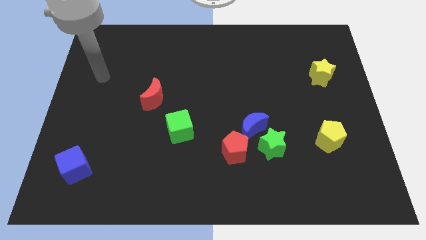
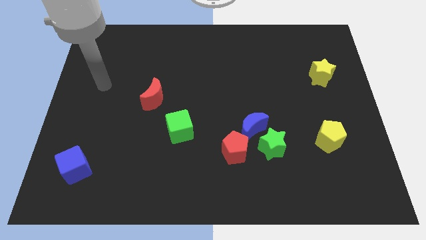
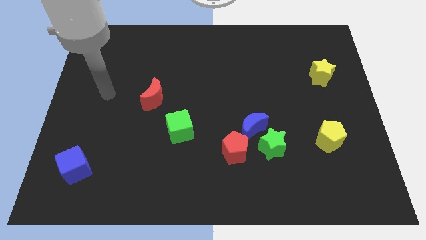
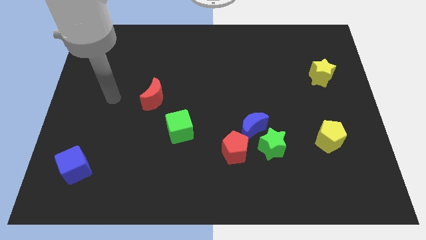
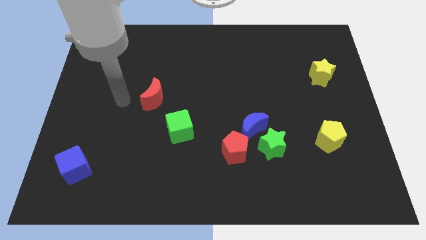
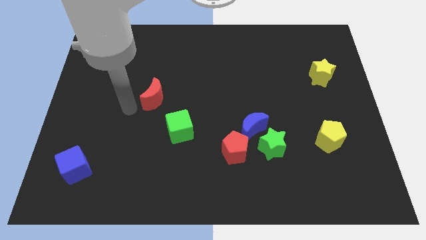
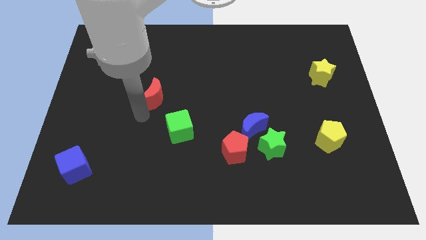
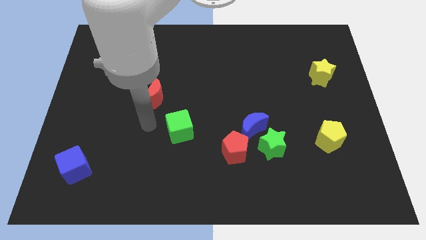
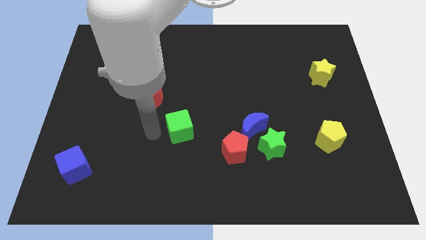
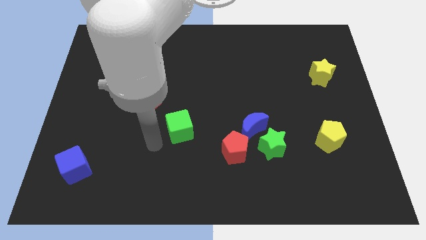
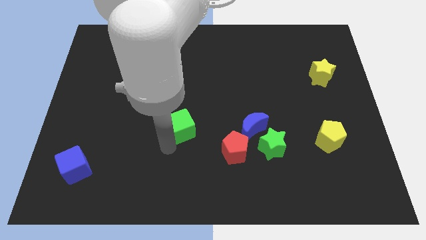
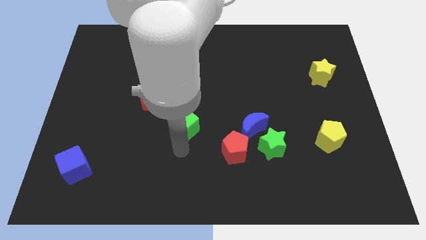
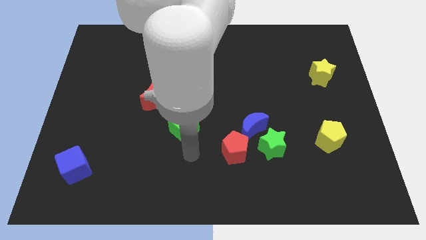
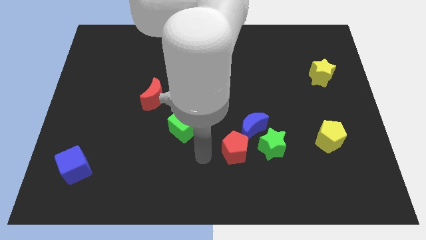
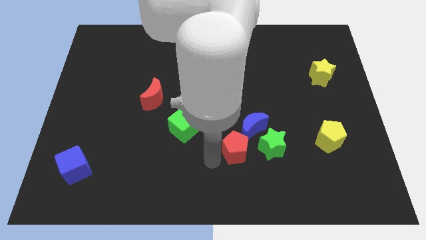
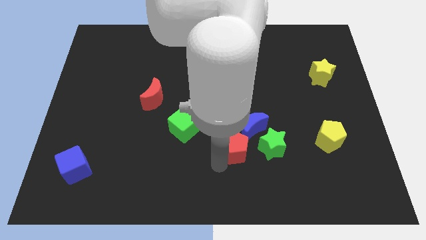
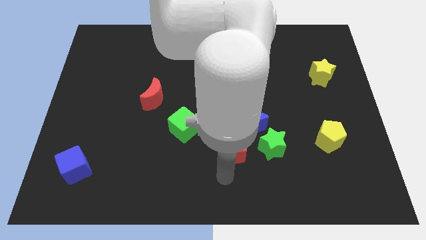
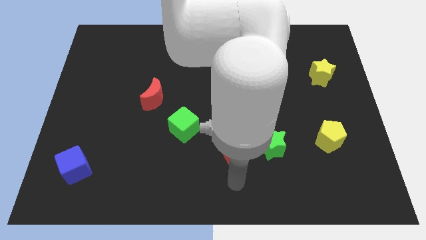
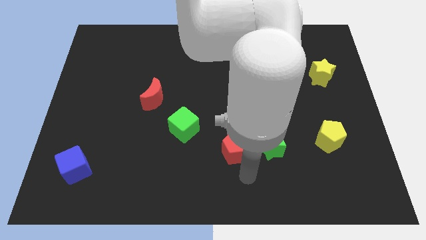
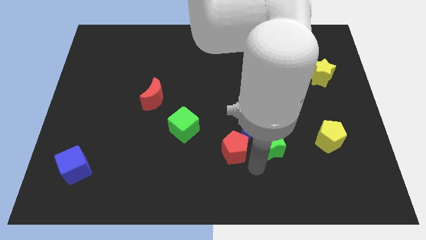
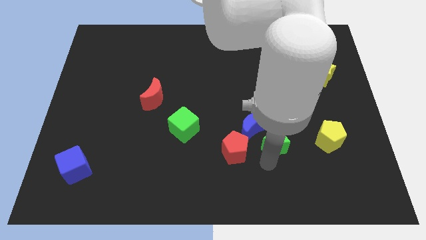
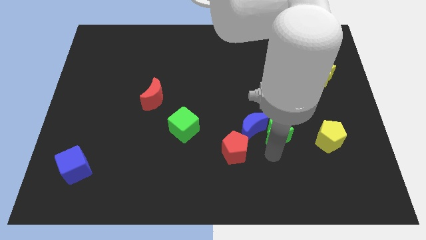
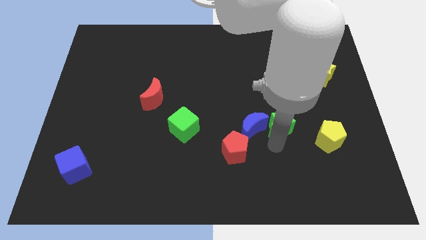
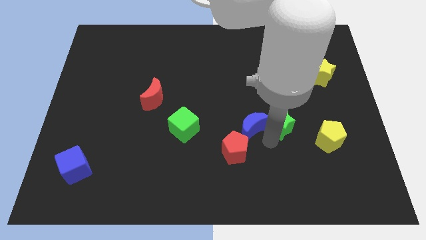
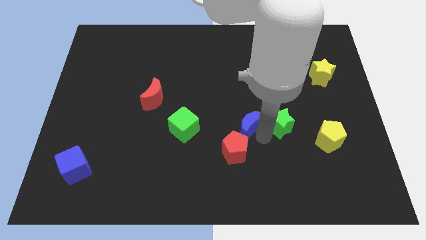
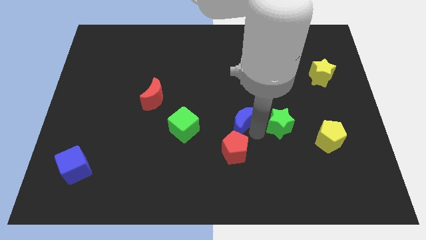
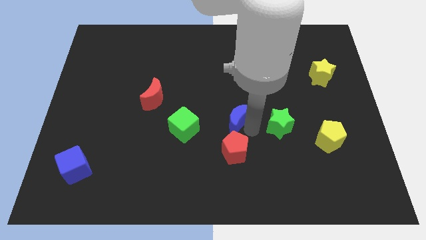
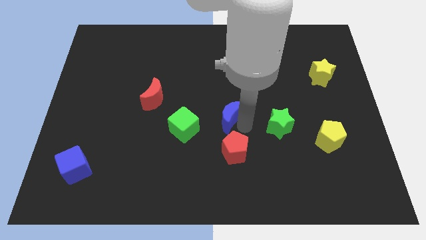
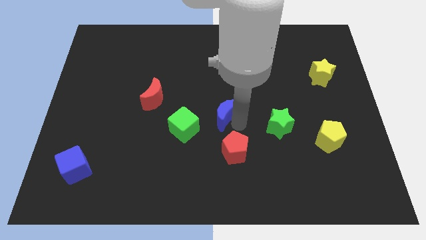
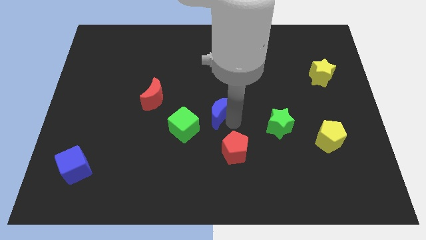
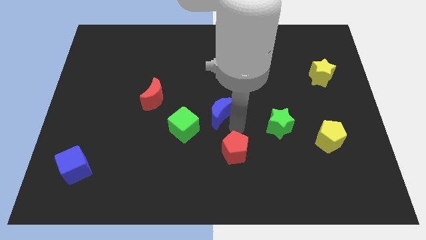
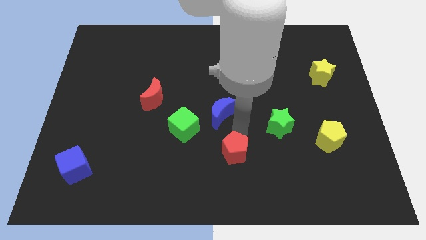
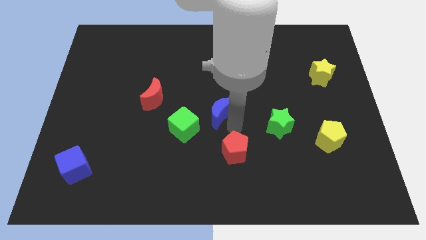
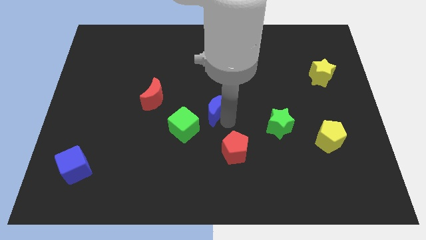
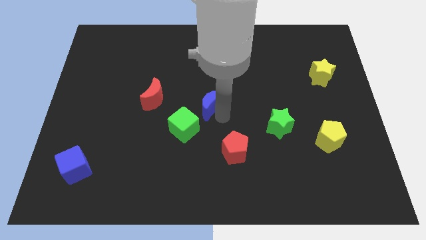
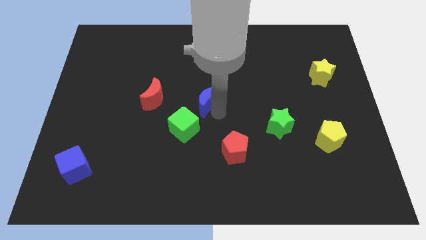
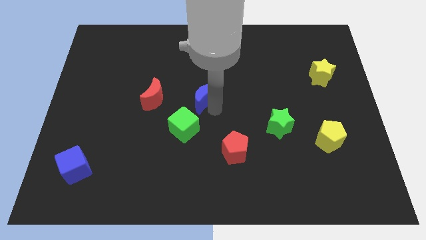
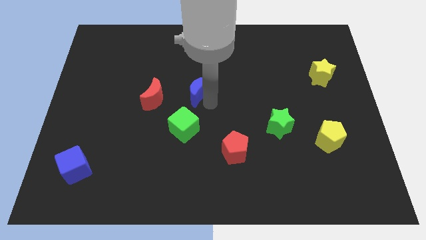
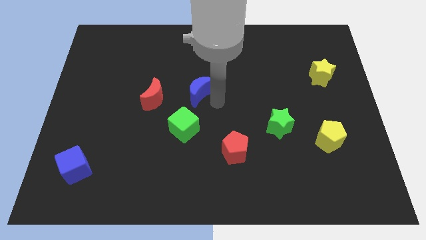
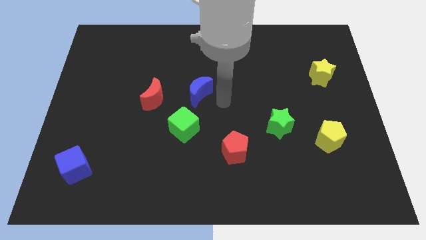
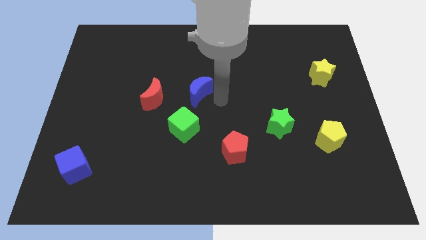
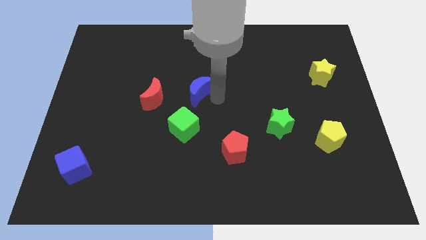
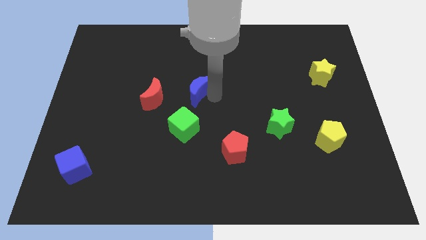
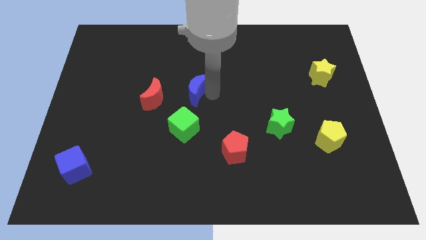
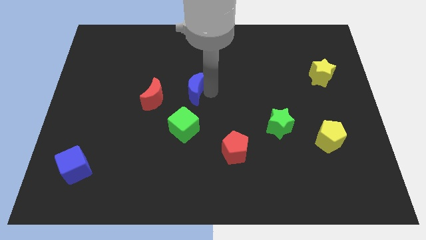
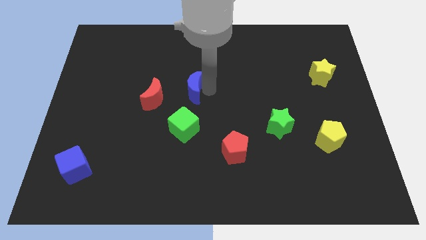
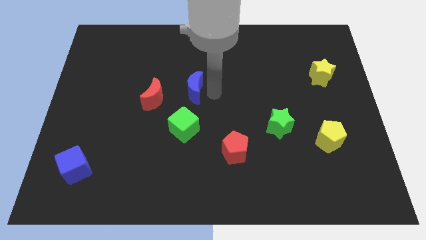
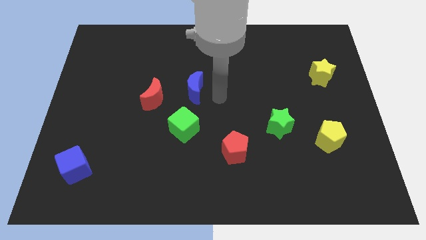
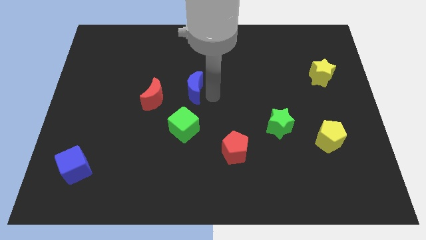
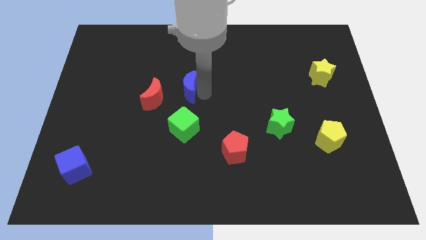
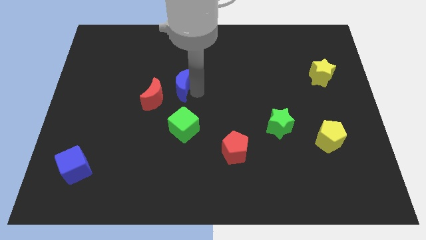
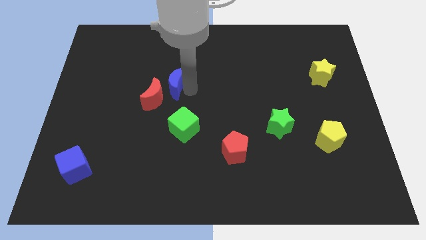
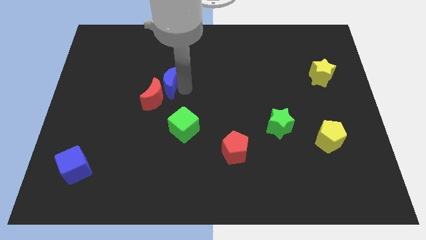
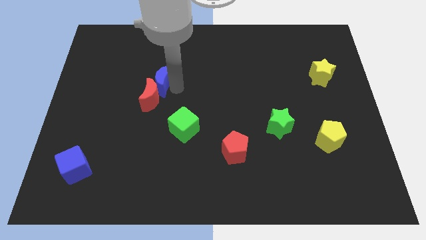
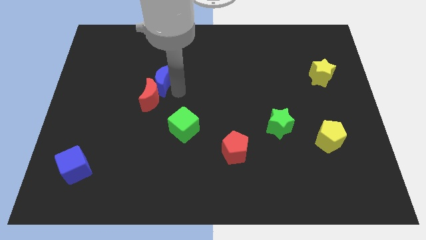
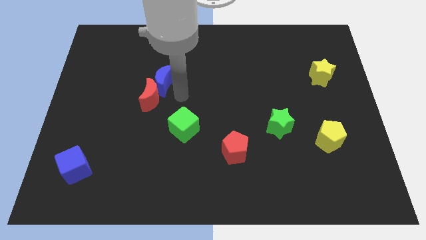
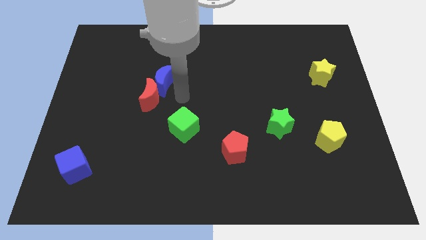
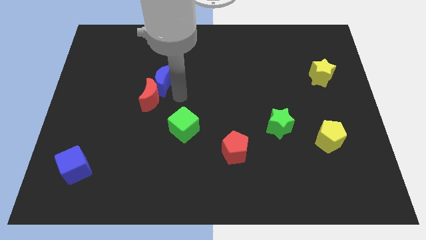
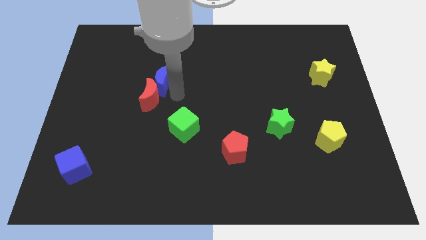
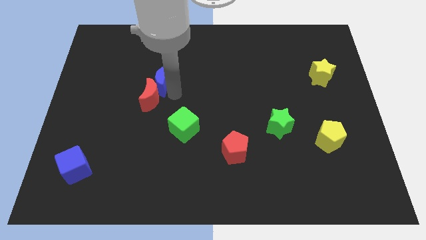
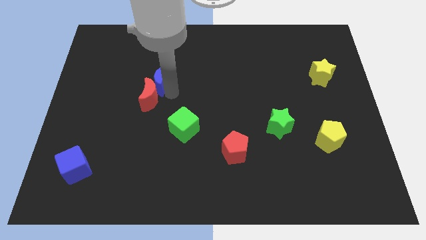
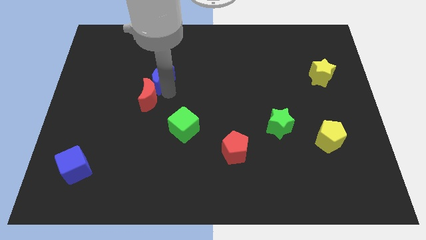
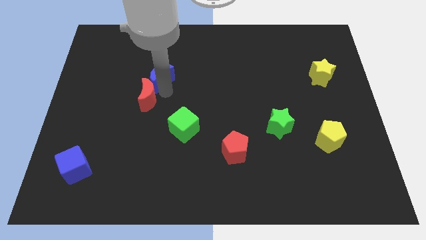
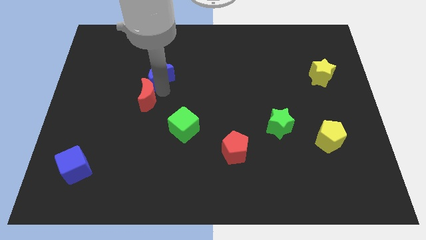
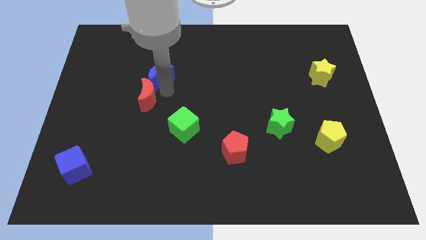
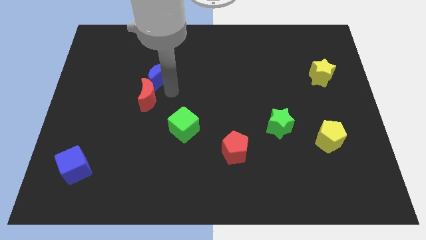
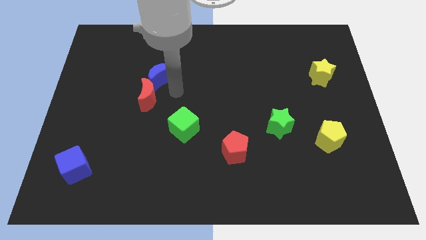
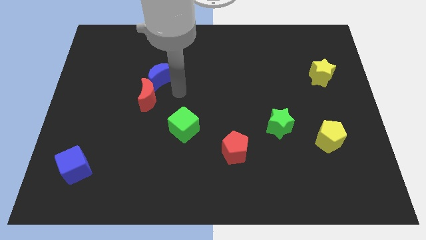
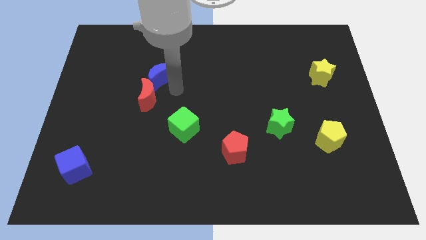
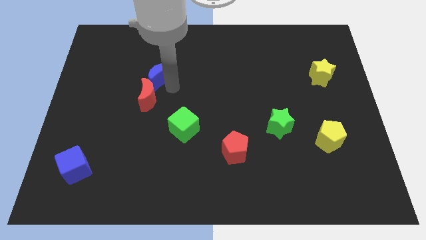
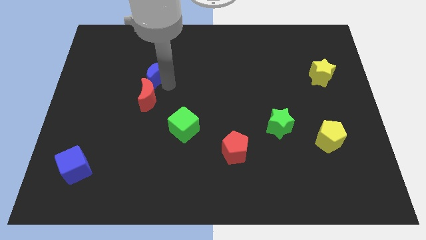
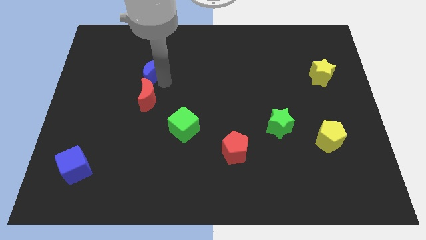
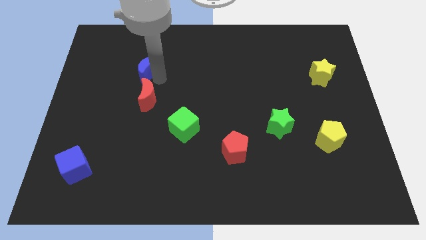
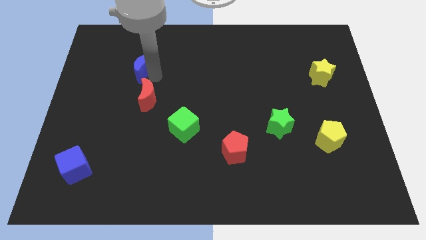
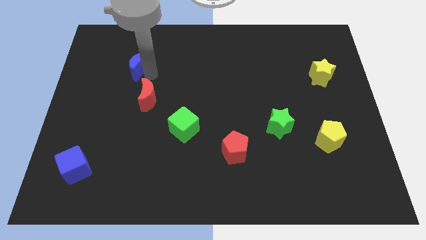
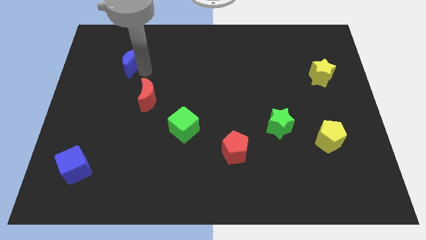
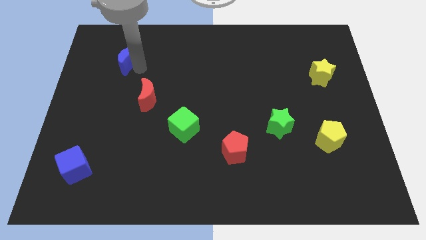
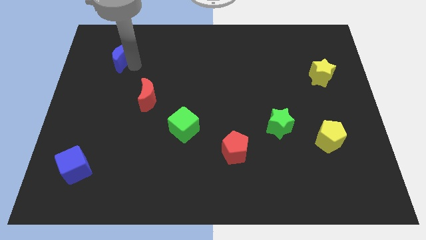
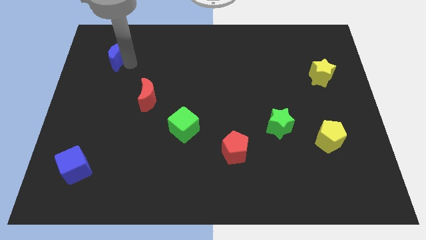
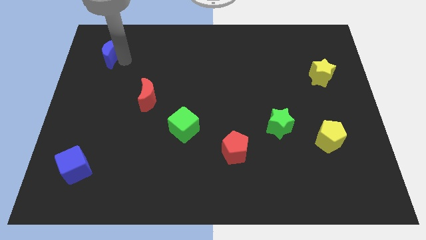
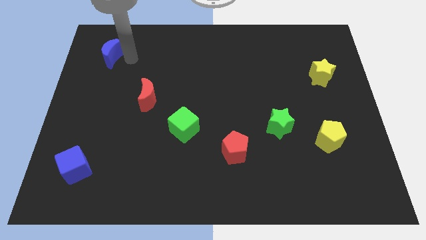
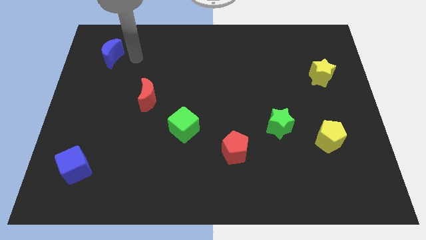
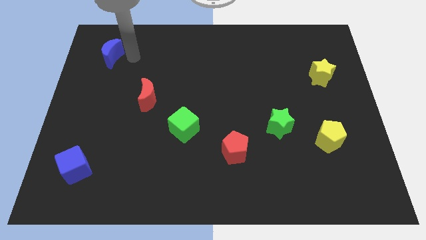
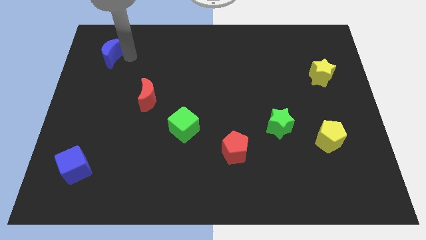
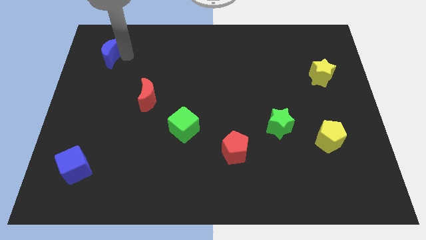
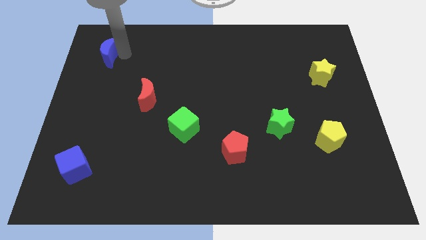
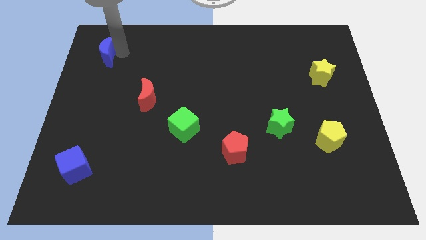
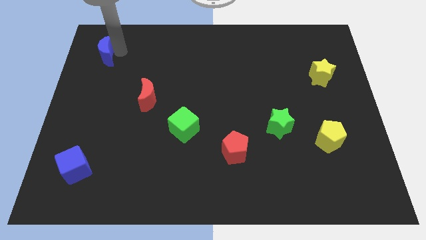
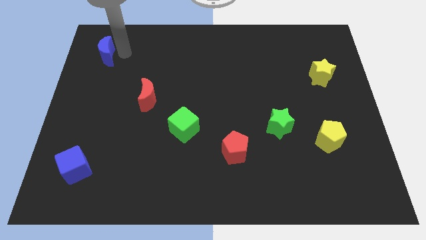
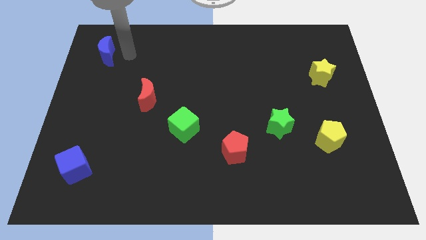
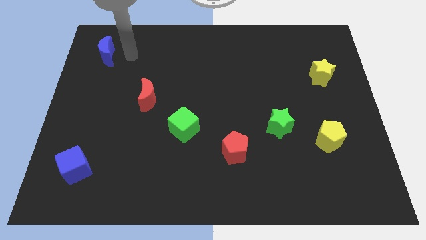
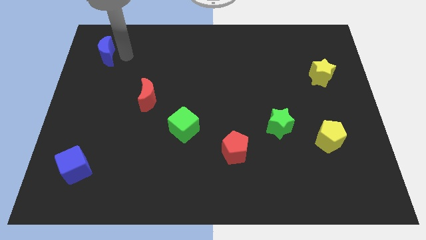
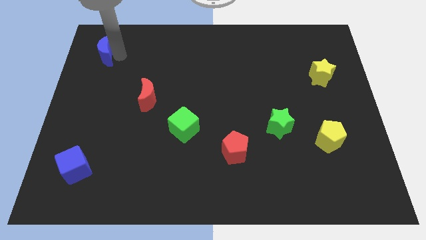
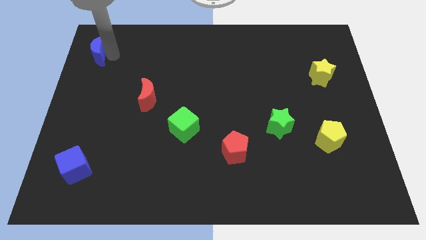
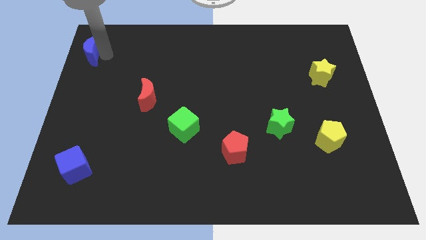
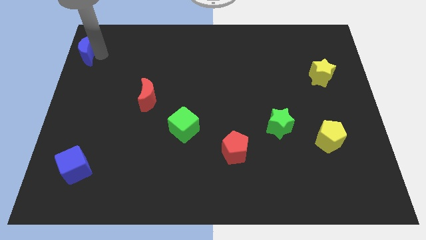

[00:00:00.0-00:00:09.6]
put the blue moon to the upper left corner
